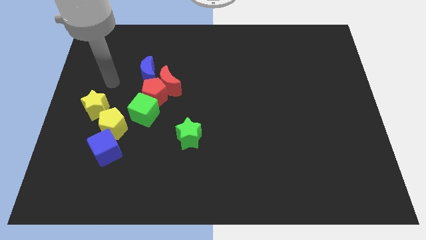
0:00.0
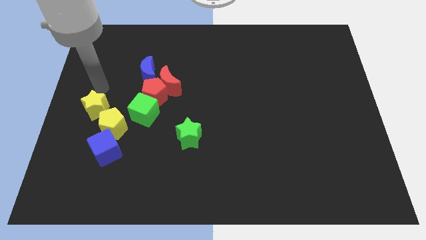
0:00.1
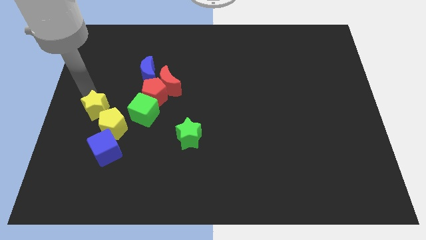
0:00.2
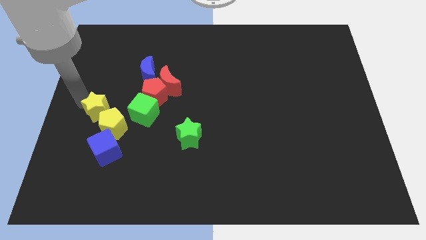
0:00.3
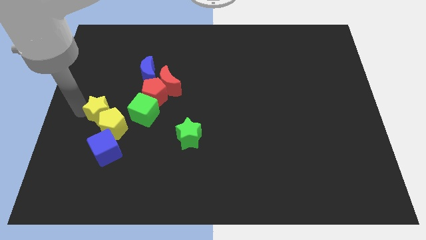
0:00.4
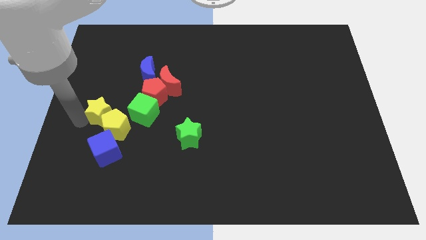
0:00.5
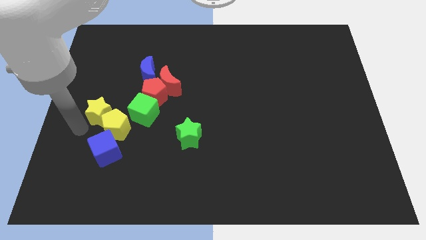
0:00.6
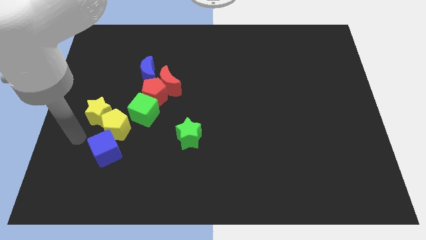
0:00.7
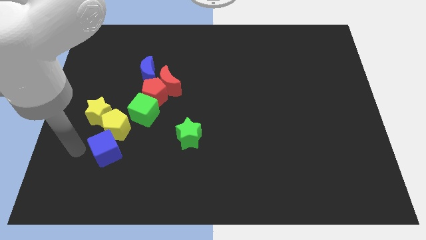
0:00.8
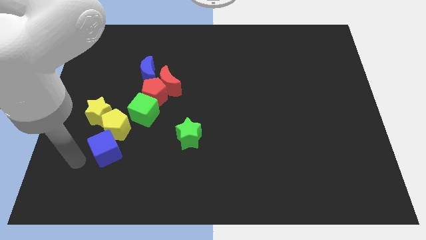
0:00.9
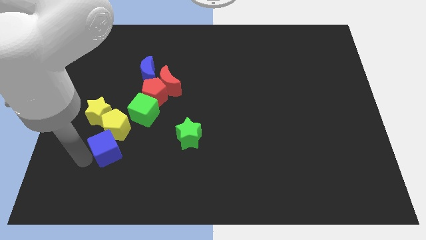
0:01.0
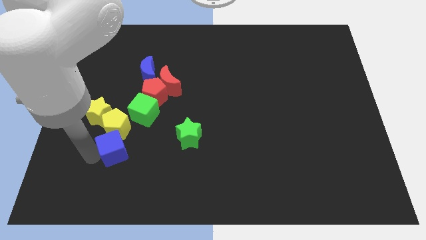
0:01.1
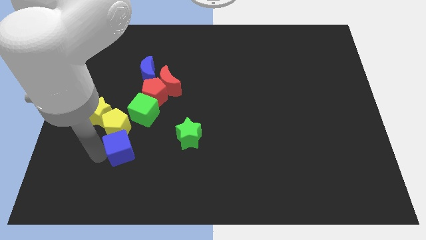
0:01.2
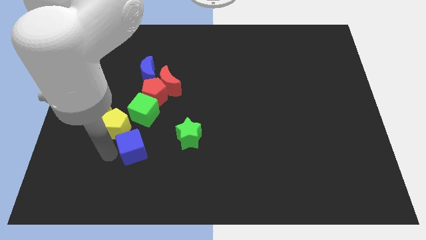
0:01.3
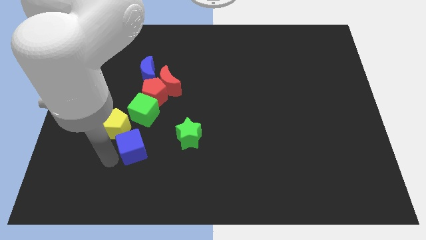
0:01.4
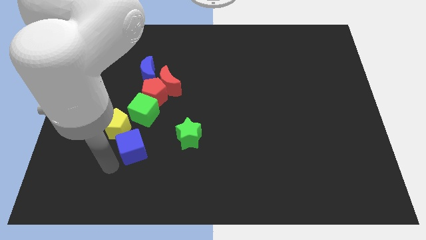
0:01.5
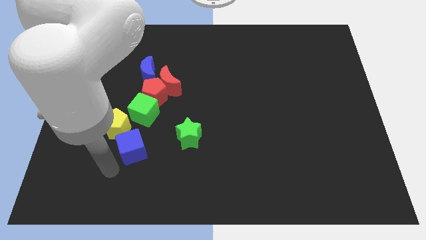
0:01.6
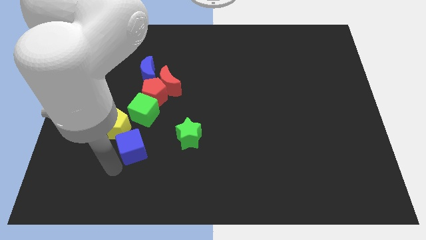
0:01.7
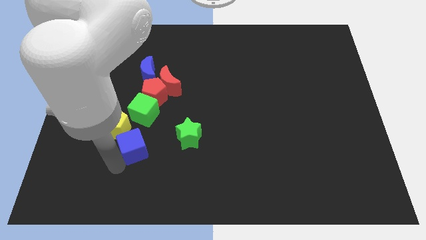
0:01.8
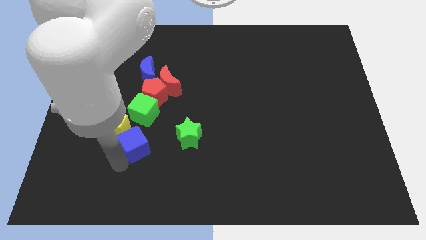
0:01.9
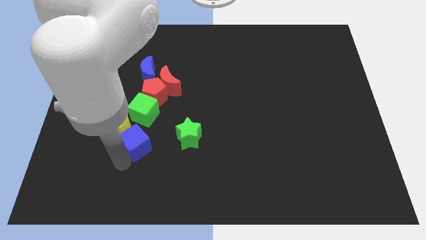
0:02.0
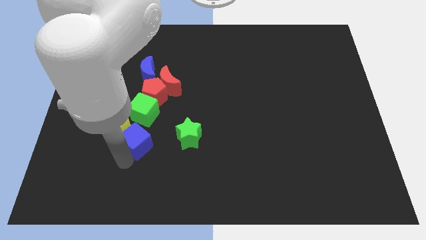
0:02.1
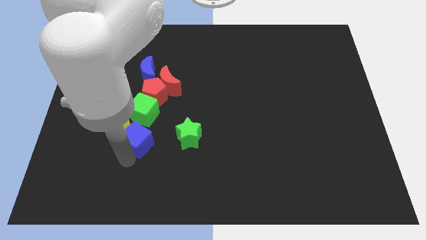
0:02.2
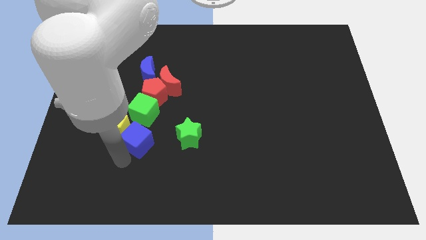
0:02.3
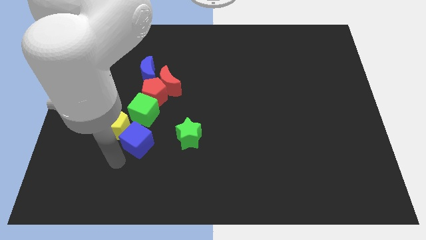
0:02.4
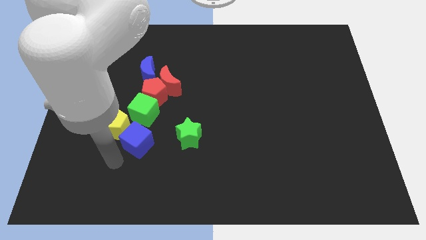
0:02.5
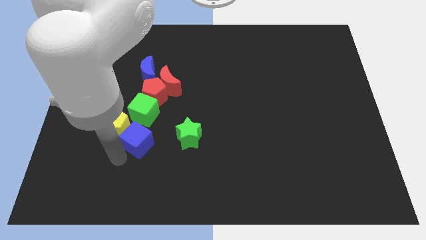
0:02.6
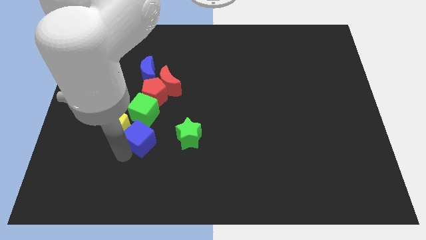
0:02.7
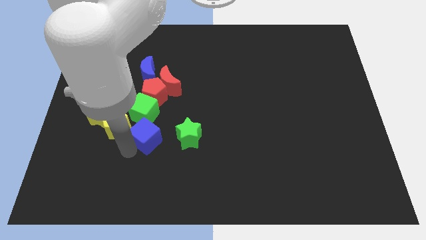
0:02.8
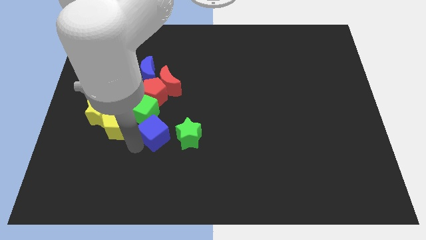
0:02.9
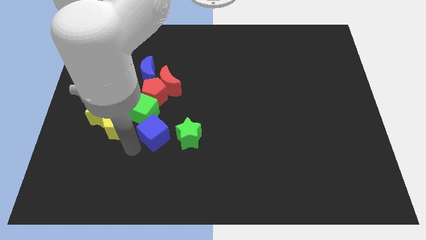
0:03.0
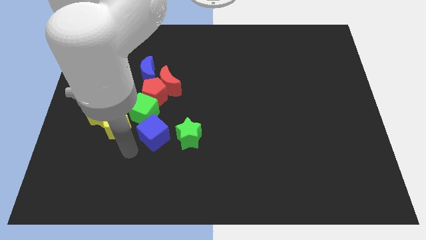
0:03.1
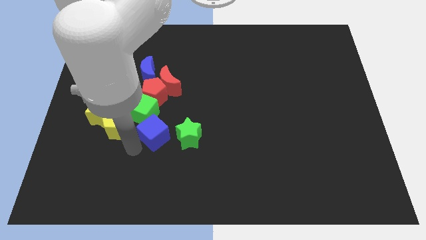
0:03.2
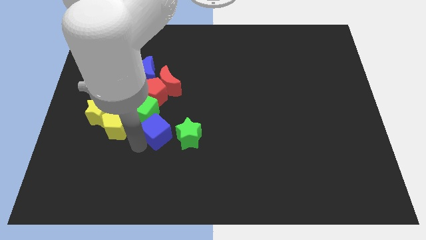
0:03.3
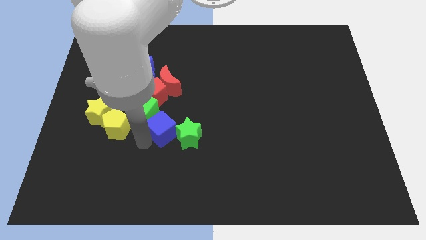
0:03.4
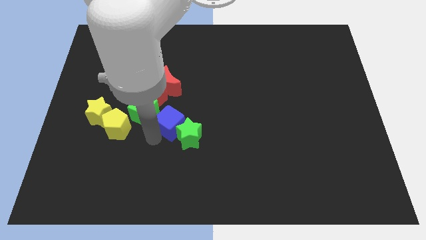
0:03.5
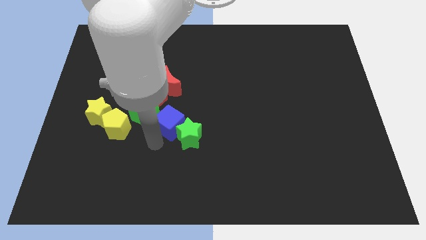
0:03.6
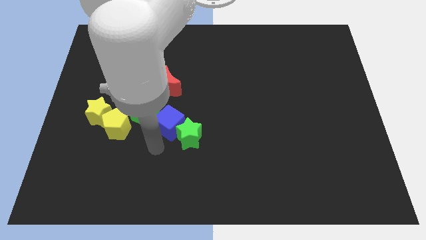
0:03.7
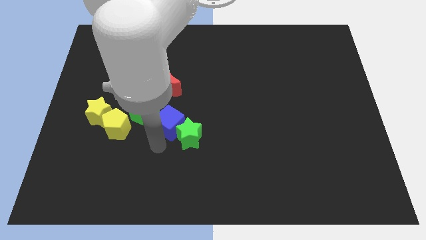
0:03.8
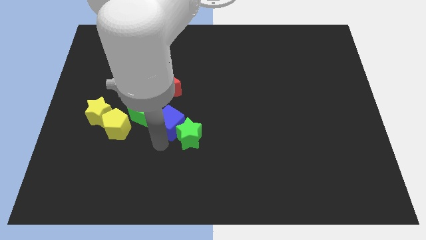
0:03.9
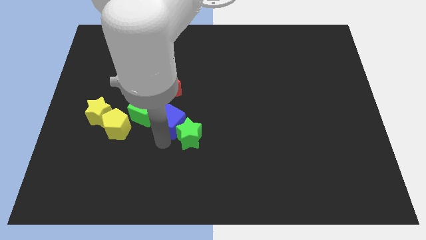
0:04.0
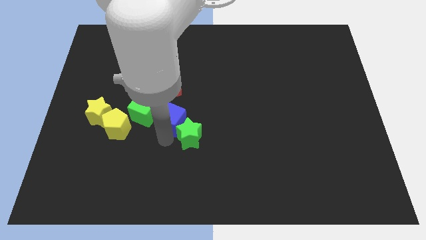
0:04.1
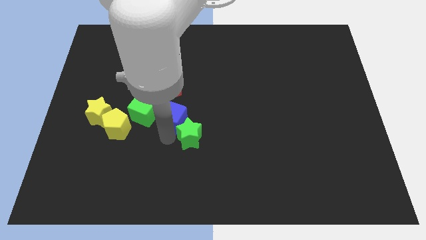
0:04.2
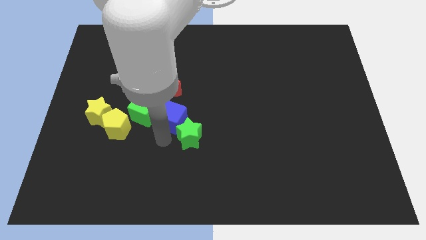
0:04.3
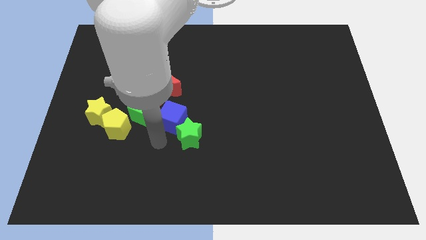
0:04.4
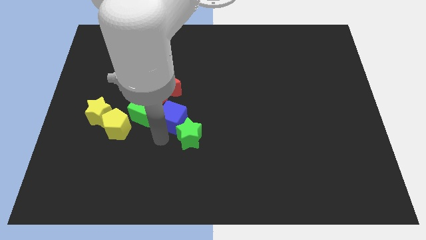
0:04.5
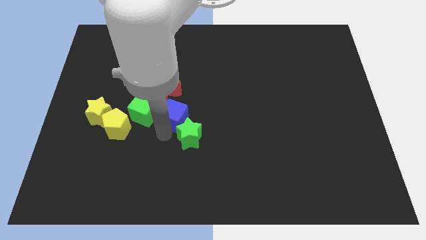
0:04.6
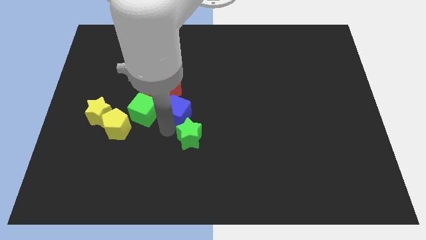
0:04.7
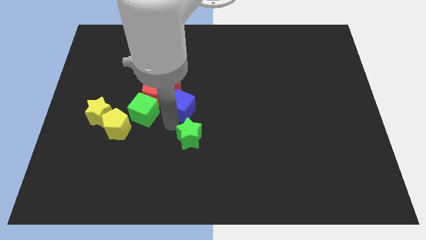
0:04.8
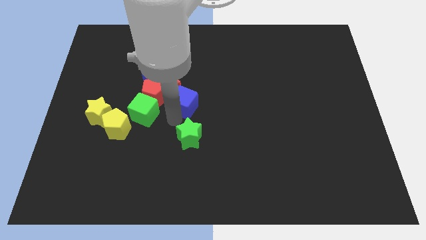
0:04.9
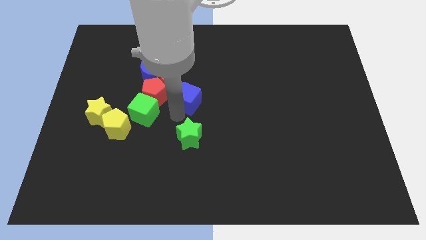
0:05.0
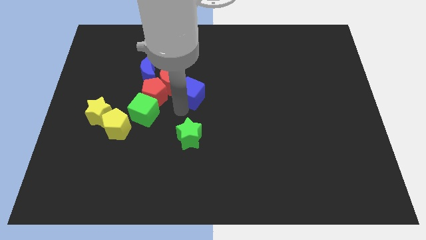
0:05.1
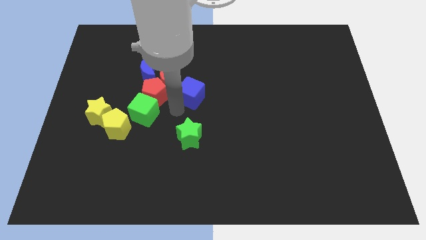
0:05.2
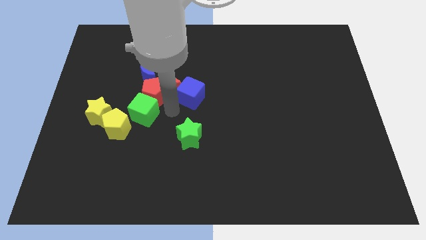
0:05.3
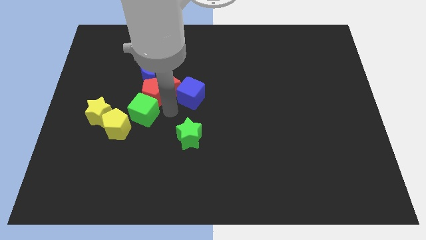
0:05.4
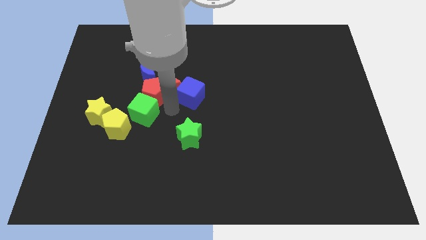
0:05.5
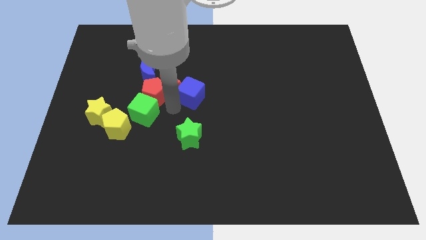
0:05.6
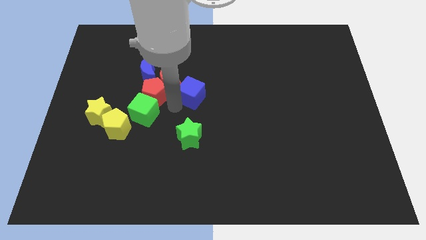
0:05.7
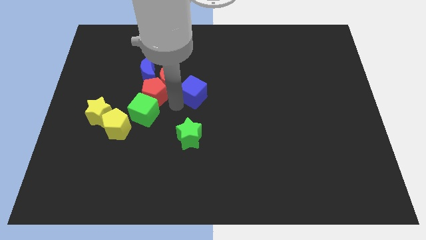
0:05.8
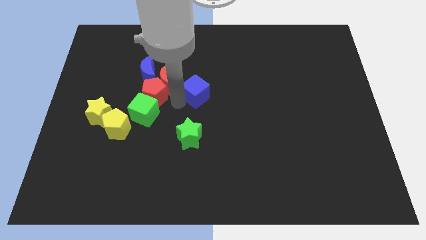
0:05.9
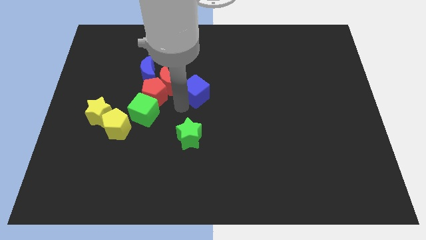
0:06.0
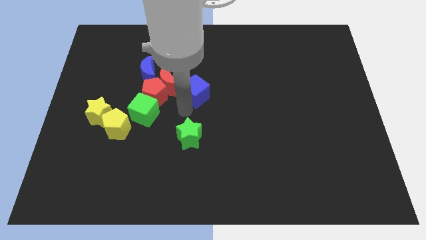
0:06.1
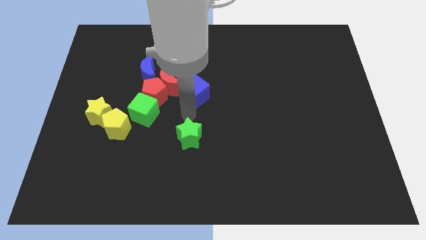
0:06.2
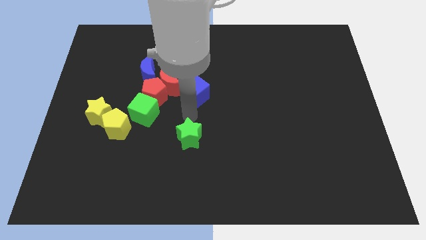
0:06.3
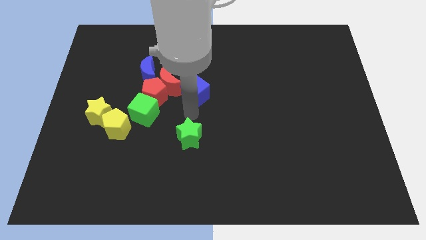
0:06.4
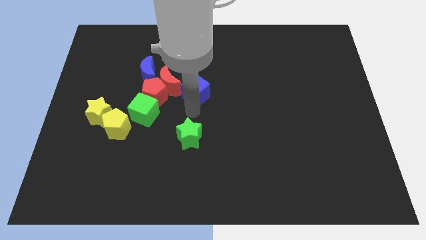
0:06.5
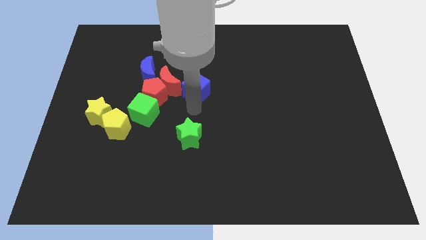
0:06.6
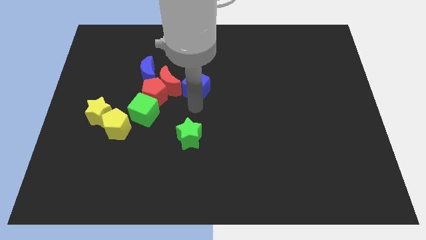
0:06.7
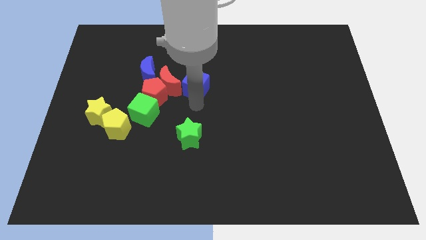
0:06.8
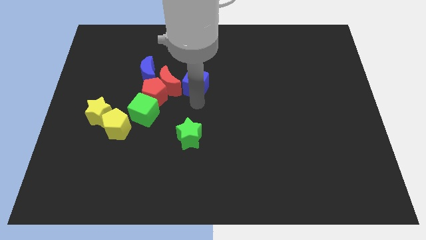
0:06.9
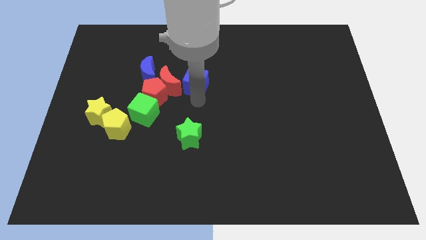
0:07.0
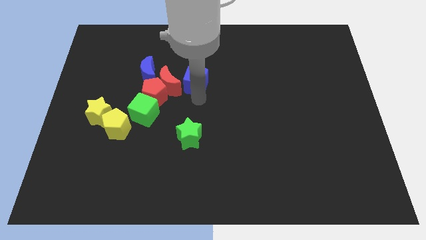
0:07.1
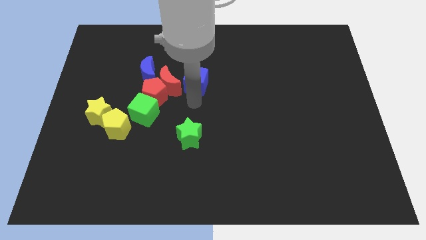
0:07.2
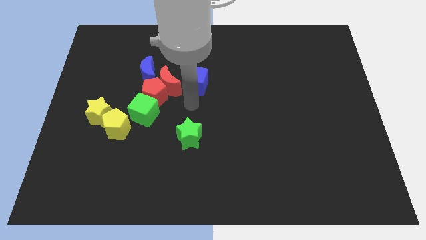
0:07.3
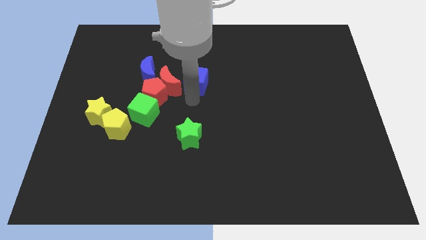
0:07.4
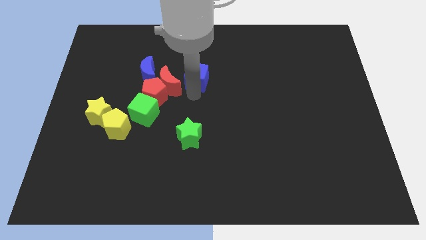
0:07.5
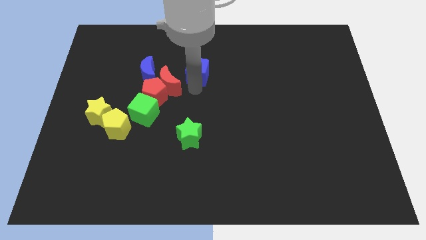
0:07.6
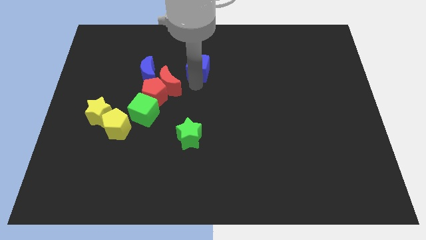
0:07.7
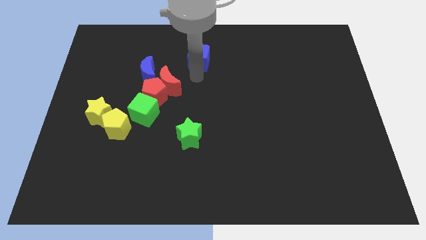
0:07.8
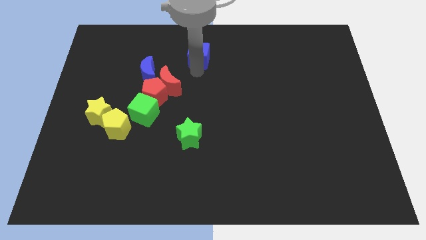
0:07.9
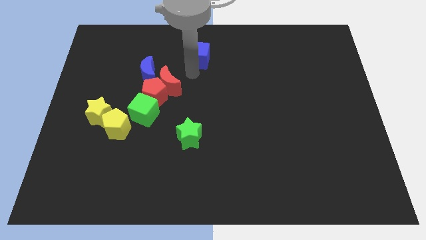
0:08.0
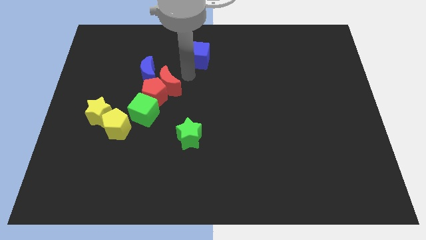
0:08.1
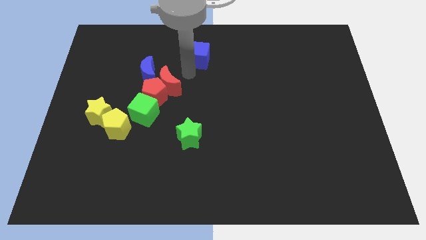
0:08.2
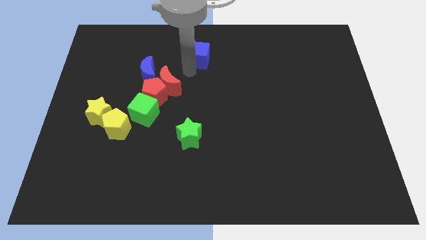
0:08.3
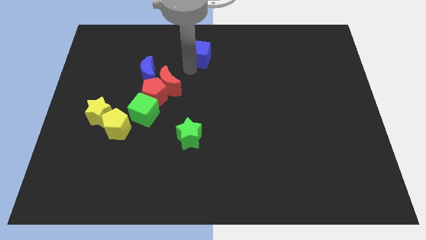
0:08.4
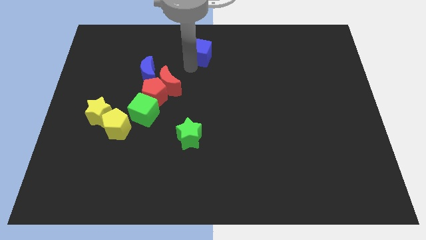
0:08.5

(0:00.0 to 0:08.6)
slide the blue cube to the towards your base
